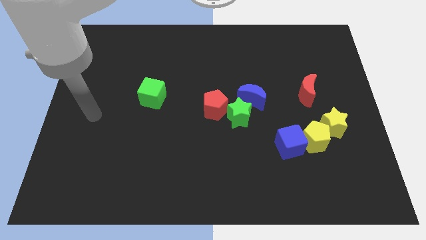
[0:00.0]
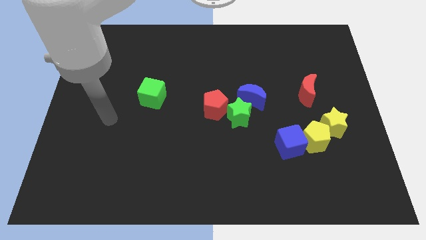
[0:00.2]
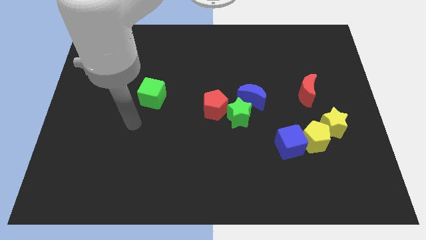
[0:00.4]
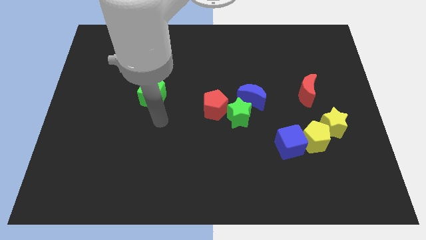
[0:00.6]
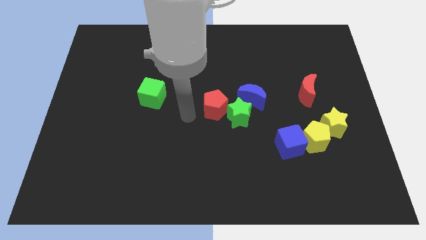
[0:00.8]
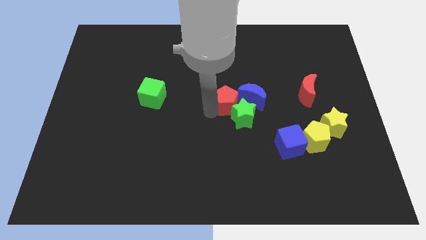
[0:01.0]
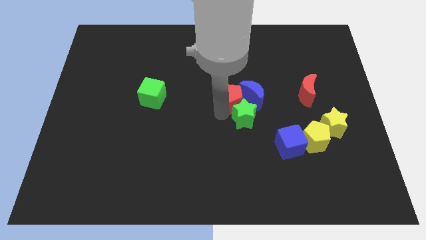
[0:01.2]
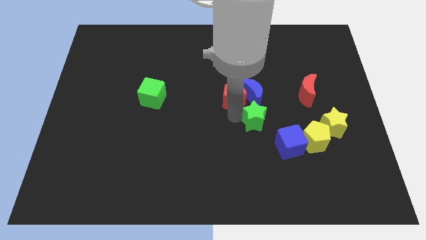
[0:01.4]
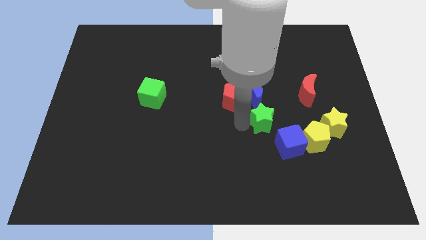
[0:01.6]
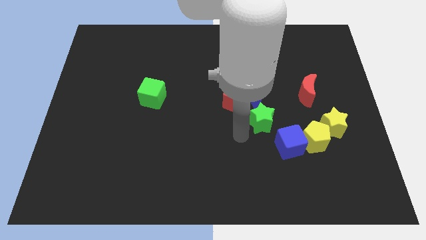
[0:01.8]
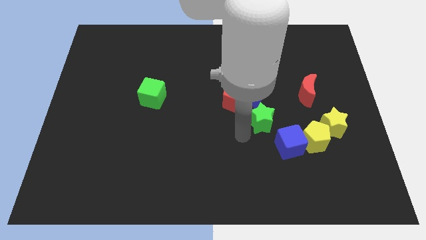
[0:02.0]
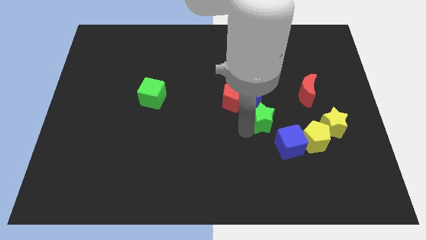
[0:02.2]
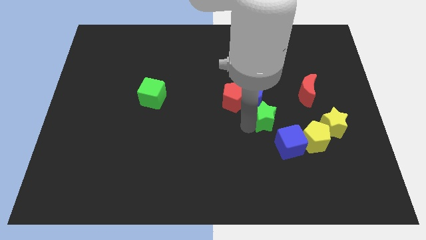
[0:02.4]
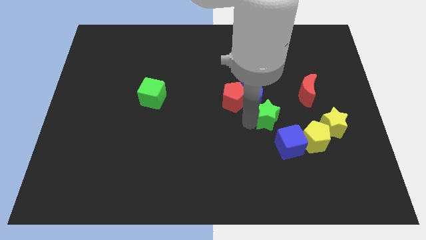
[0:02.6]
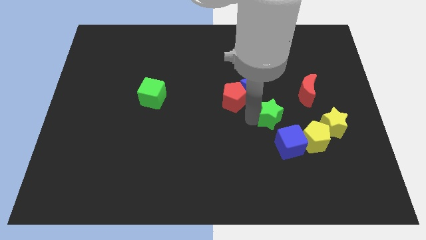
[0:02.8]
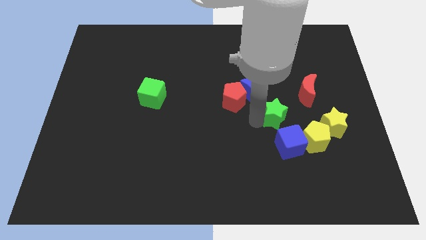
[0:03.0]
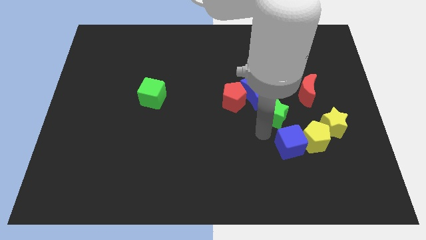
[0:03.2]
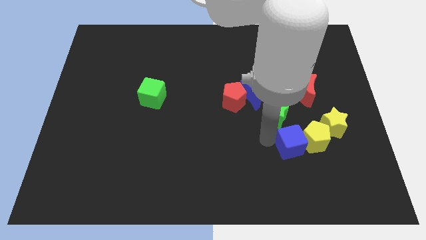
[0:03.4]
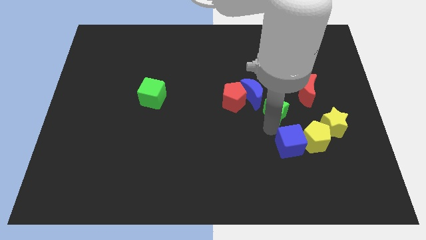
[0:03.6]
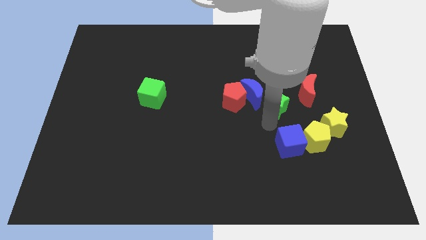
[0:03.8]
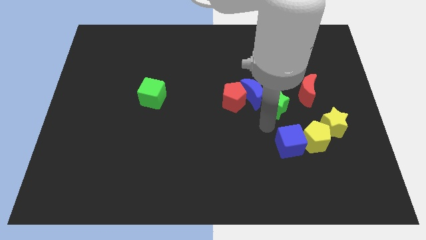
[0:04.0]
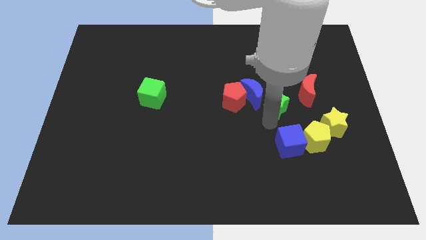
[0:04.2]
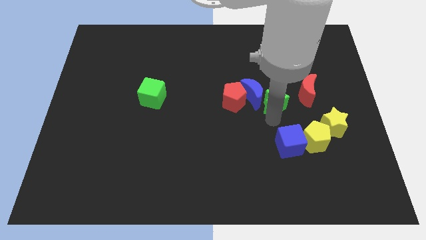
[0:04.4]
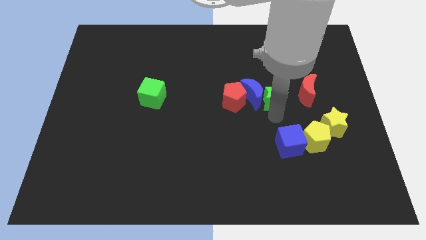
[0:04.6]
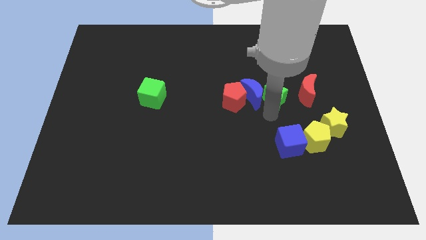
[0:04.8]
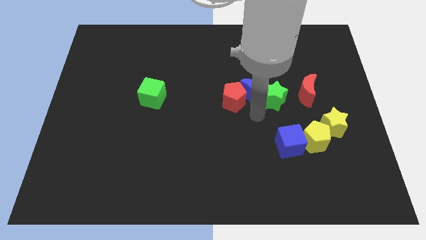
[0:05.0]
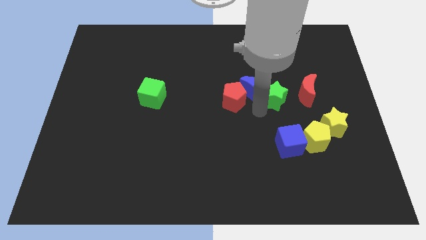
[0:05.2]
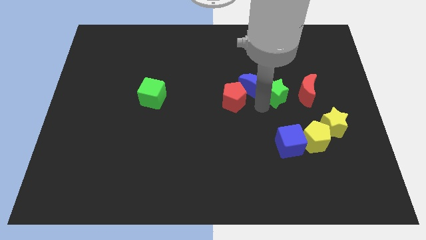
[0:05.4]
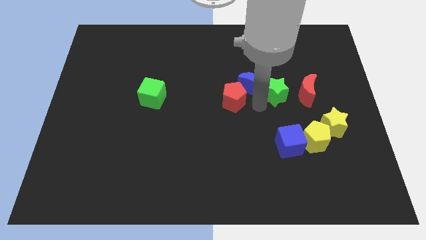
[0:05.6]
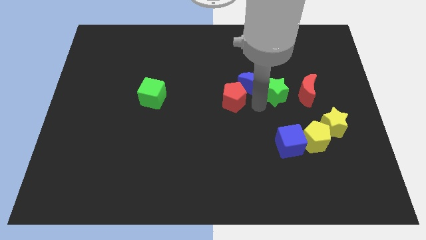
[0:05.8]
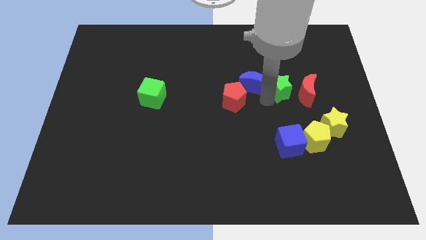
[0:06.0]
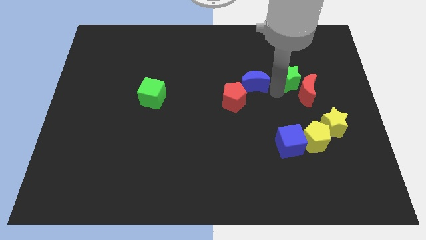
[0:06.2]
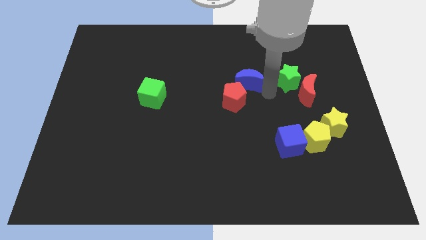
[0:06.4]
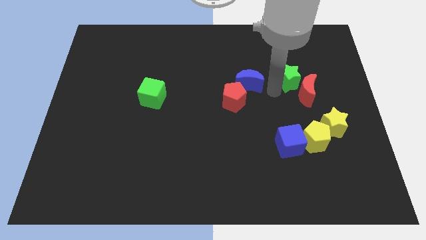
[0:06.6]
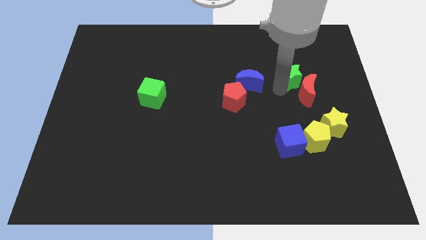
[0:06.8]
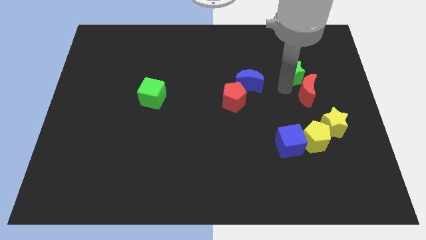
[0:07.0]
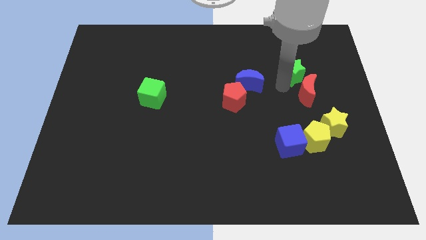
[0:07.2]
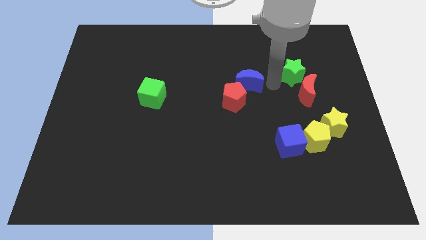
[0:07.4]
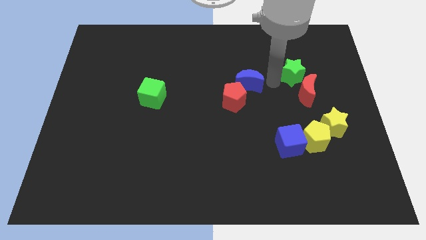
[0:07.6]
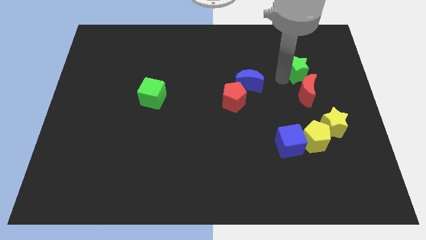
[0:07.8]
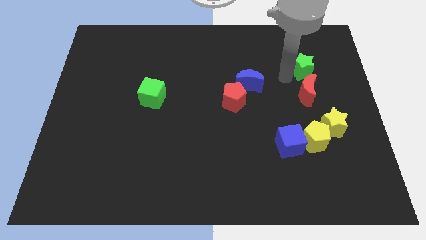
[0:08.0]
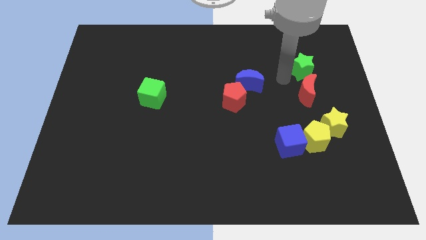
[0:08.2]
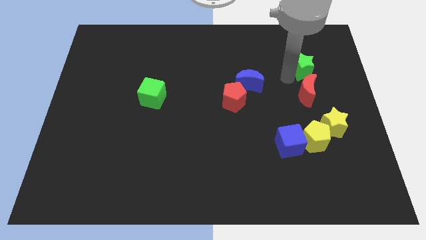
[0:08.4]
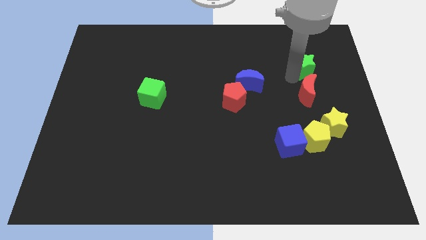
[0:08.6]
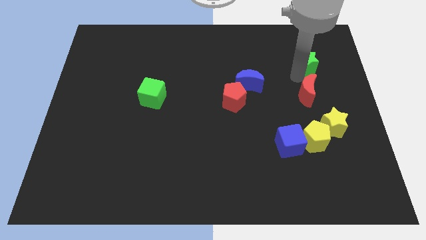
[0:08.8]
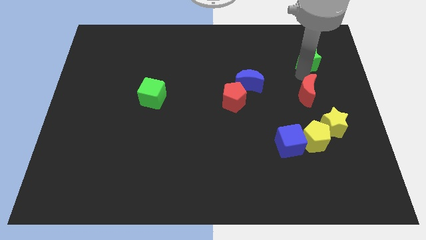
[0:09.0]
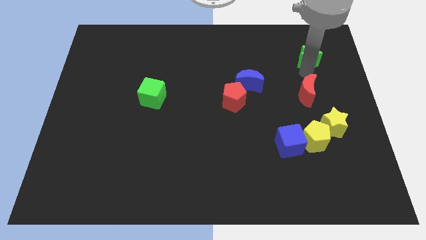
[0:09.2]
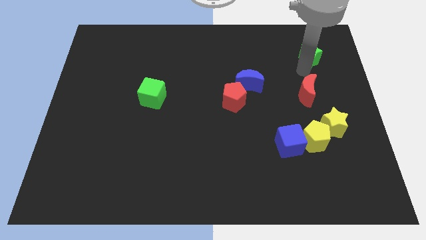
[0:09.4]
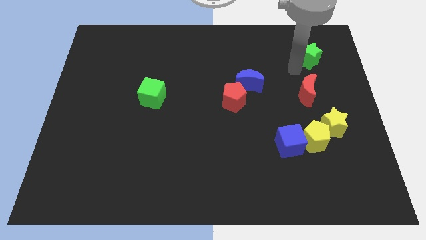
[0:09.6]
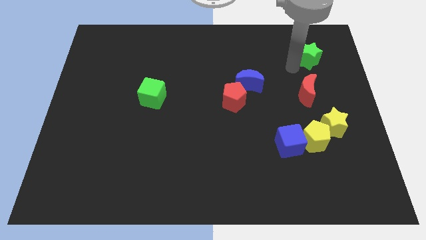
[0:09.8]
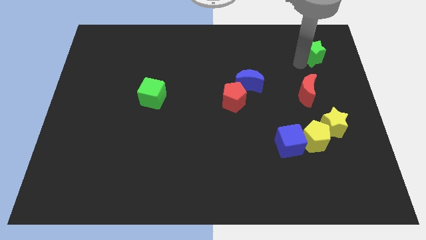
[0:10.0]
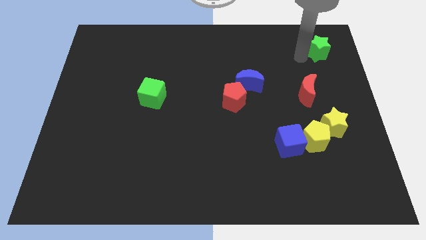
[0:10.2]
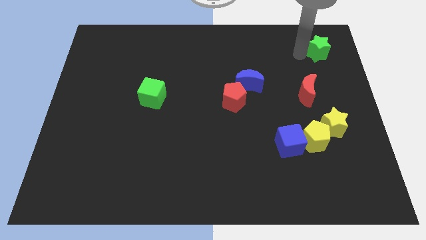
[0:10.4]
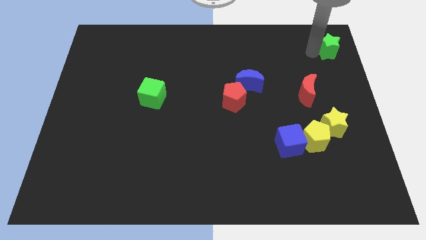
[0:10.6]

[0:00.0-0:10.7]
push the green star to the top right

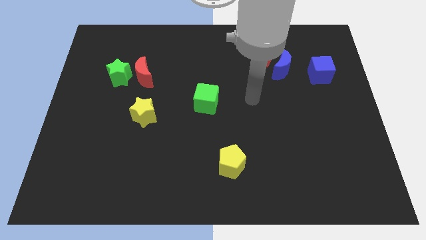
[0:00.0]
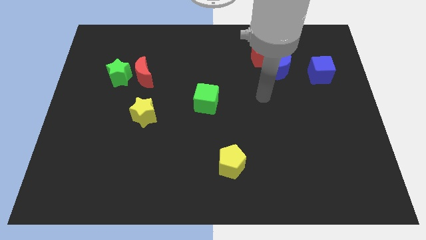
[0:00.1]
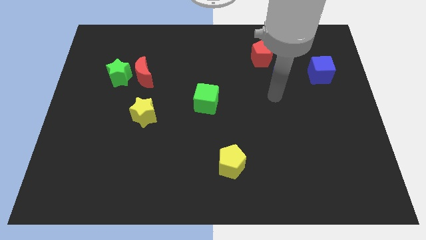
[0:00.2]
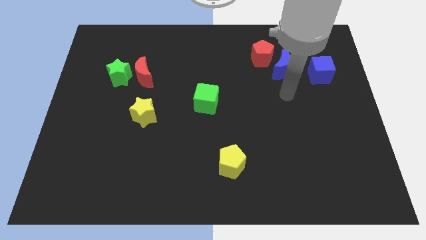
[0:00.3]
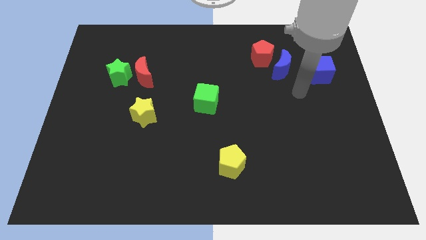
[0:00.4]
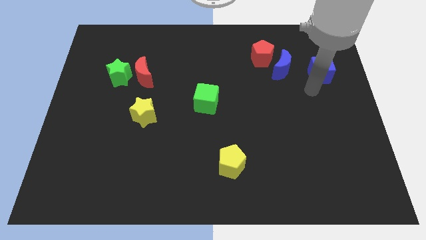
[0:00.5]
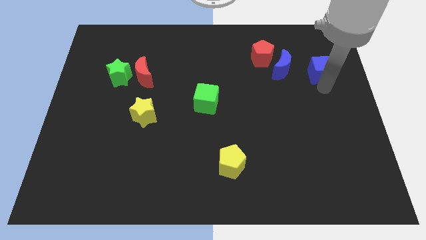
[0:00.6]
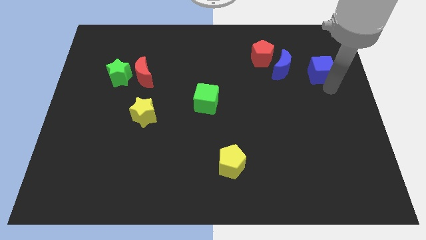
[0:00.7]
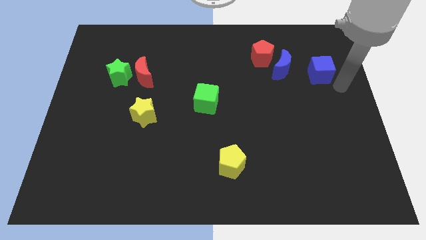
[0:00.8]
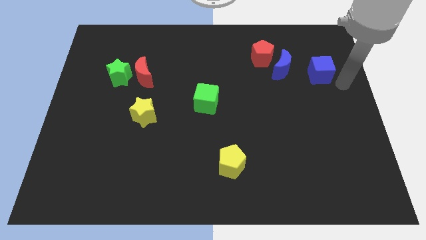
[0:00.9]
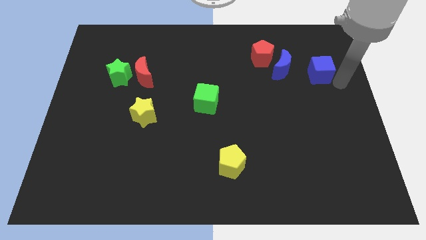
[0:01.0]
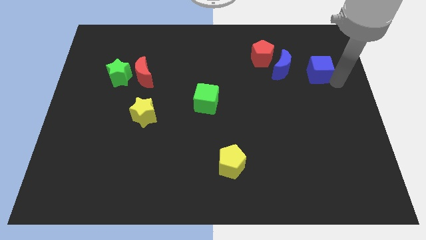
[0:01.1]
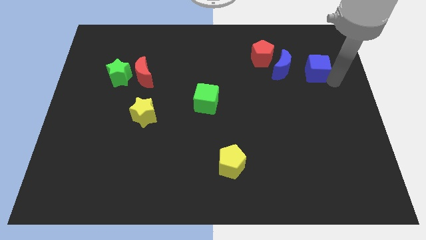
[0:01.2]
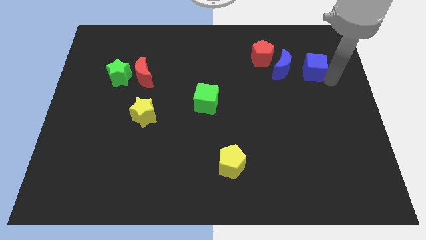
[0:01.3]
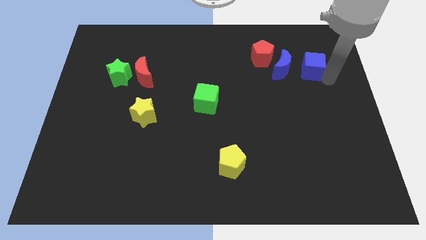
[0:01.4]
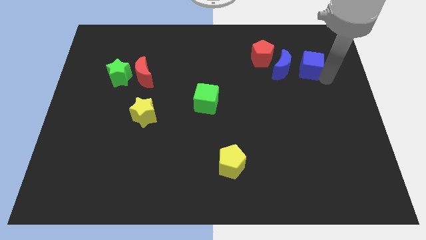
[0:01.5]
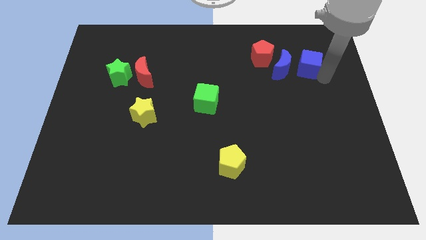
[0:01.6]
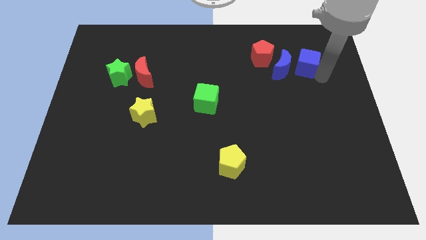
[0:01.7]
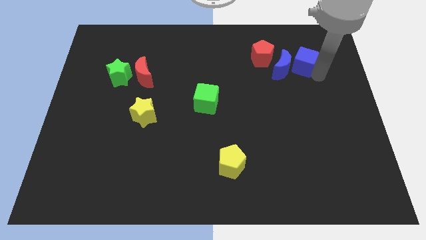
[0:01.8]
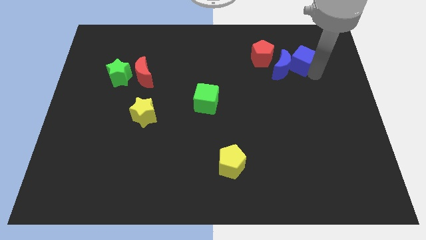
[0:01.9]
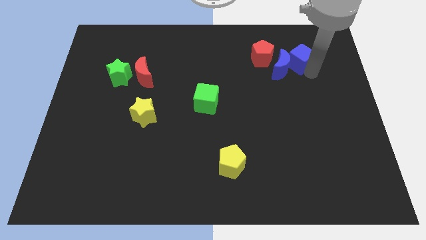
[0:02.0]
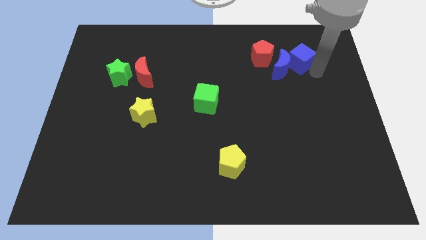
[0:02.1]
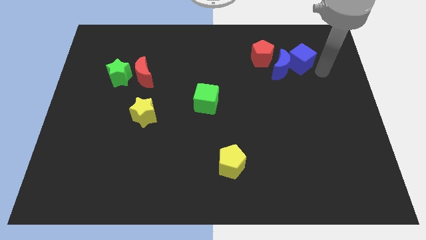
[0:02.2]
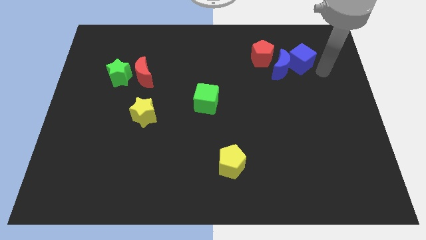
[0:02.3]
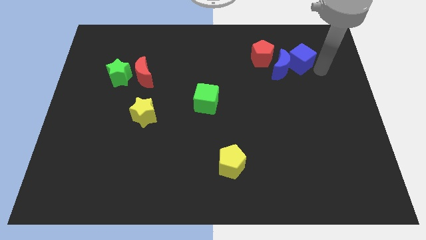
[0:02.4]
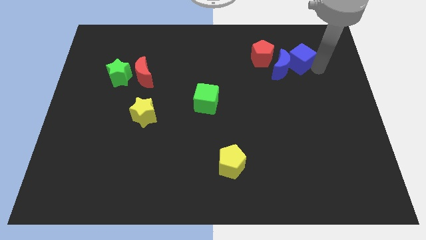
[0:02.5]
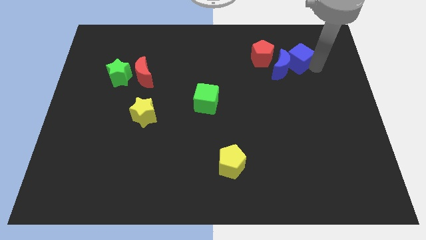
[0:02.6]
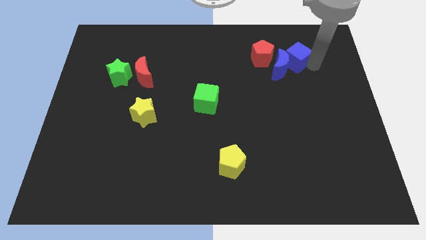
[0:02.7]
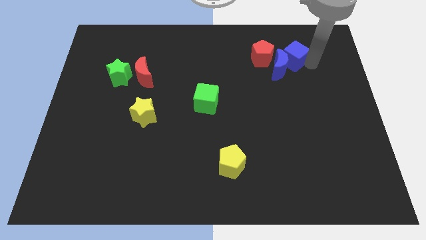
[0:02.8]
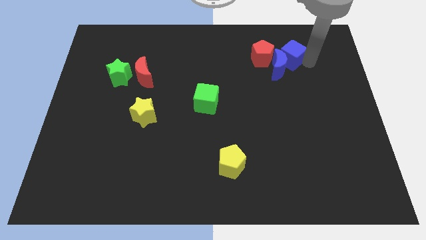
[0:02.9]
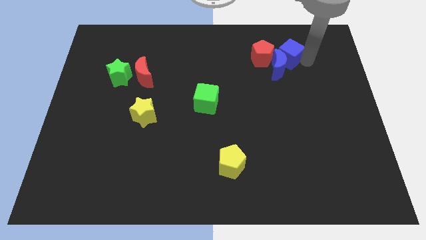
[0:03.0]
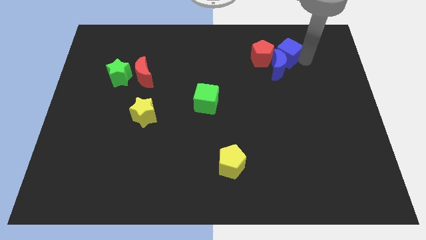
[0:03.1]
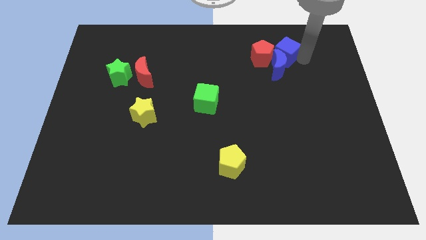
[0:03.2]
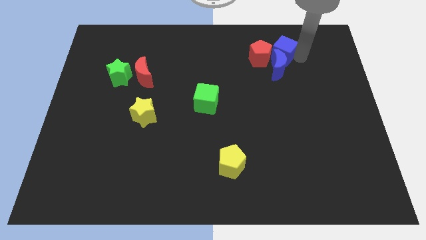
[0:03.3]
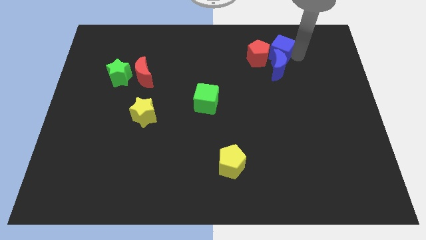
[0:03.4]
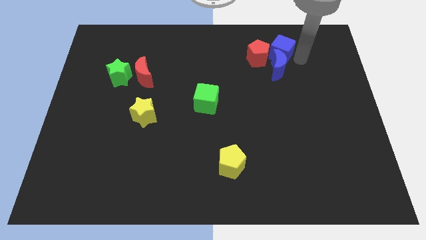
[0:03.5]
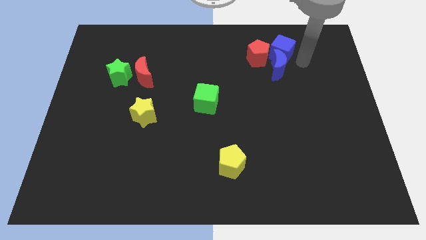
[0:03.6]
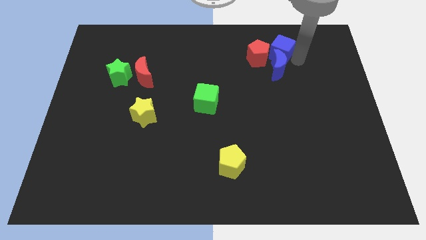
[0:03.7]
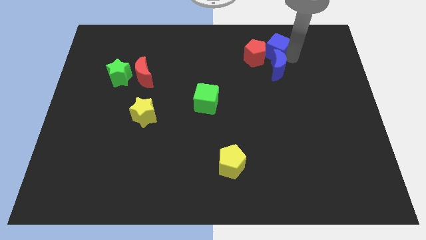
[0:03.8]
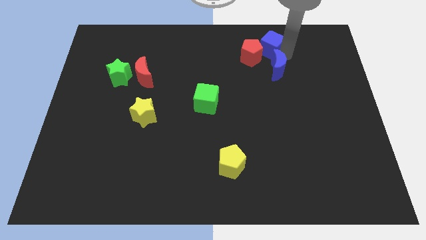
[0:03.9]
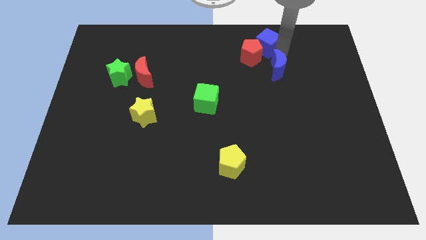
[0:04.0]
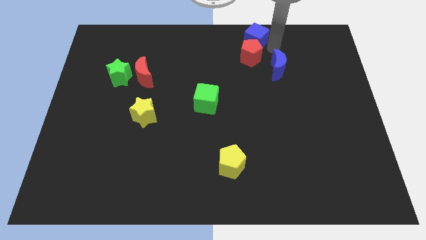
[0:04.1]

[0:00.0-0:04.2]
move the blue cube to the top side
